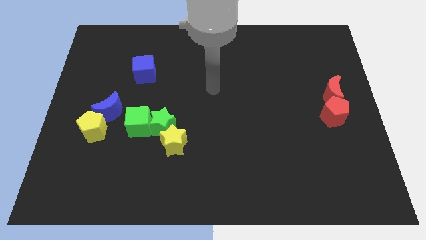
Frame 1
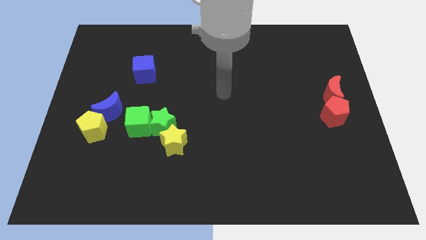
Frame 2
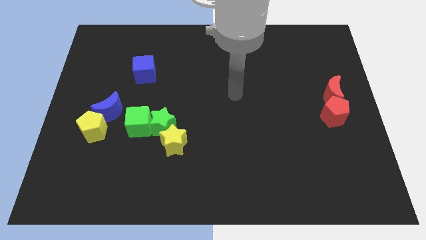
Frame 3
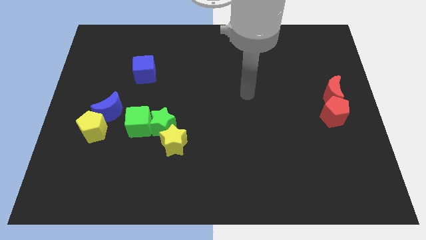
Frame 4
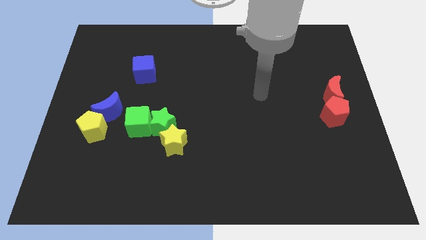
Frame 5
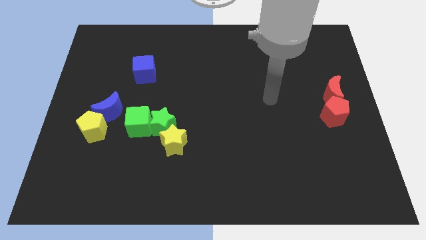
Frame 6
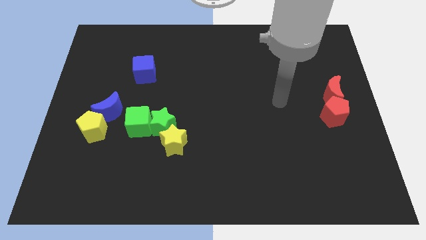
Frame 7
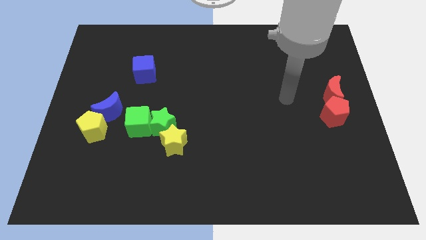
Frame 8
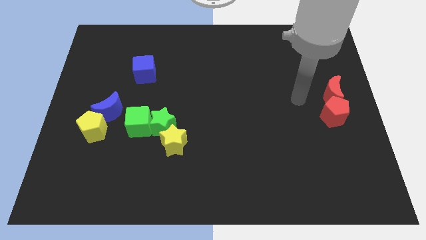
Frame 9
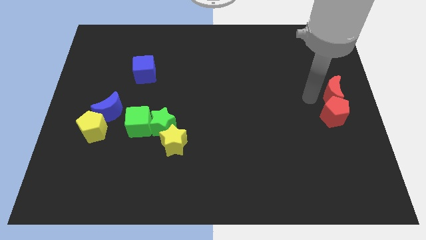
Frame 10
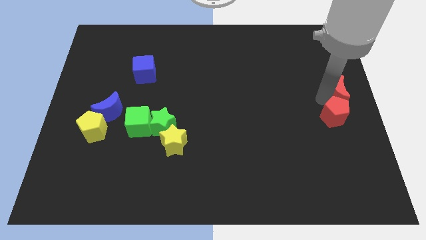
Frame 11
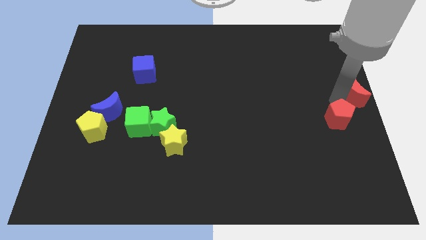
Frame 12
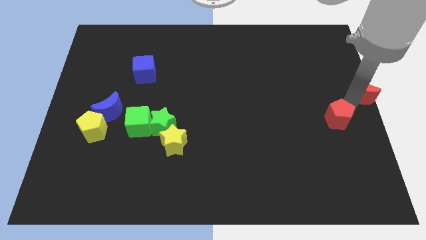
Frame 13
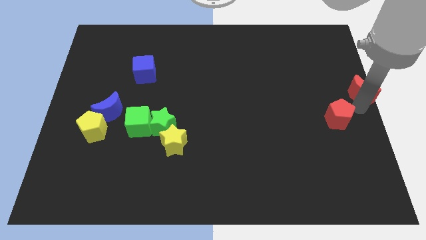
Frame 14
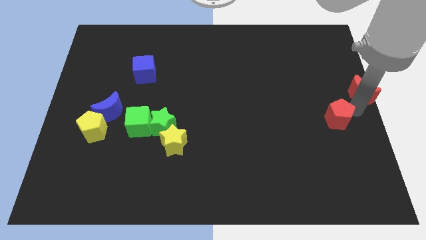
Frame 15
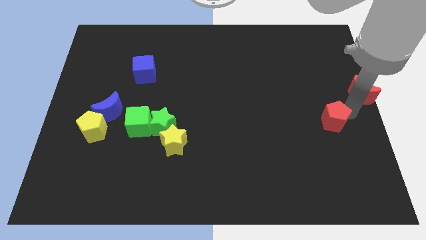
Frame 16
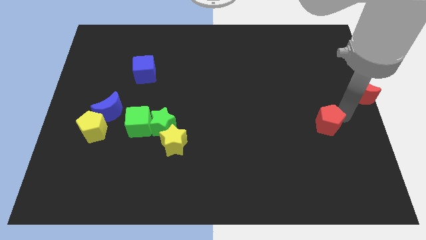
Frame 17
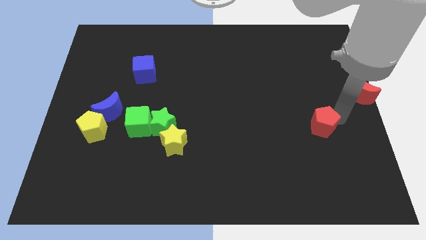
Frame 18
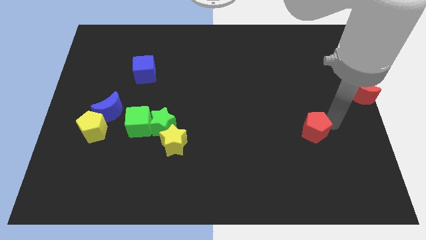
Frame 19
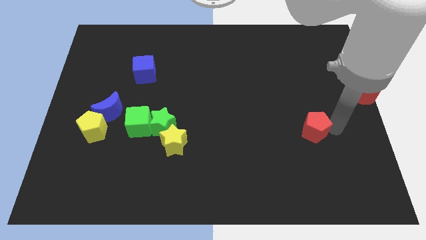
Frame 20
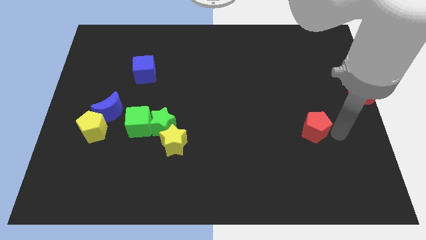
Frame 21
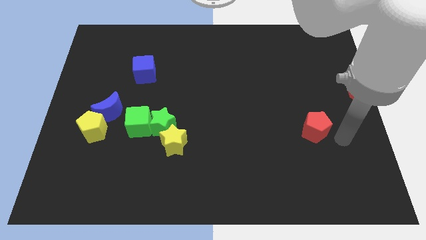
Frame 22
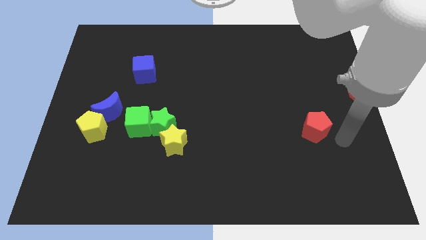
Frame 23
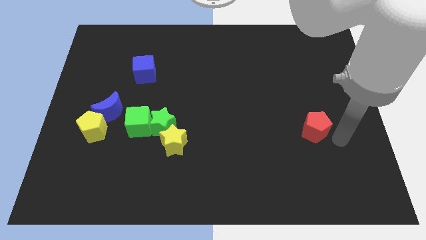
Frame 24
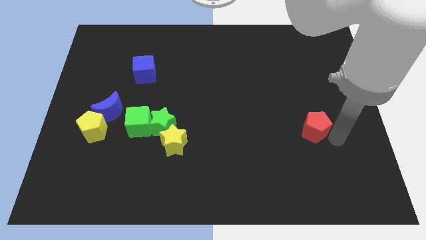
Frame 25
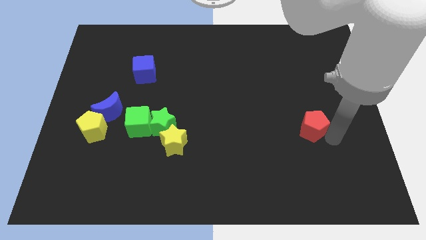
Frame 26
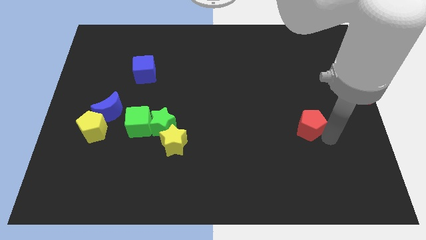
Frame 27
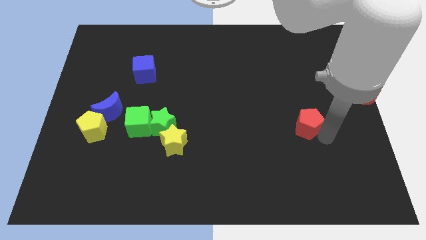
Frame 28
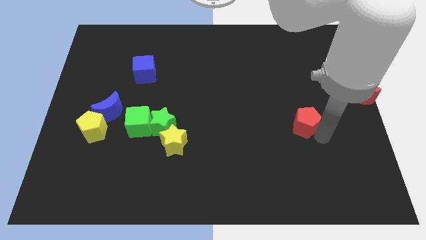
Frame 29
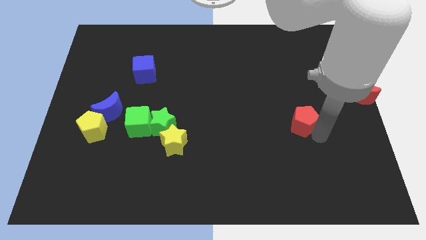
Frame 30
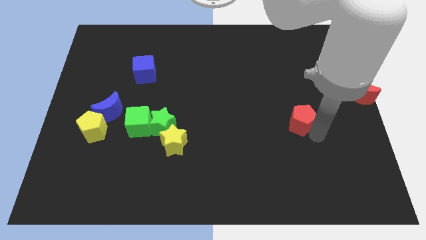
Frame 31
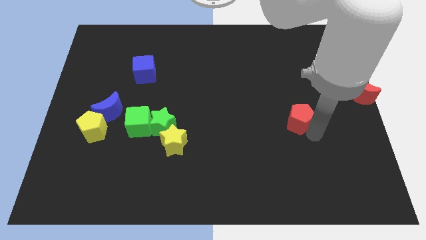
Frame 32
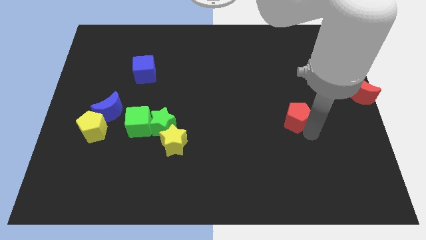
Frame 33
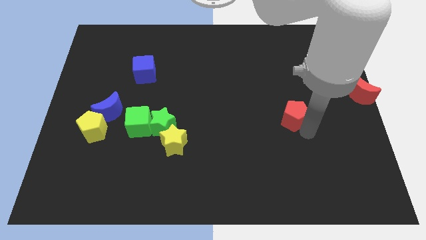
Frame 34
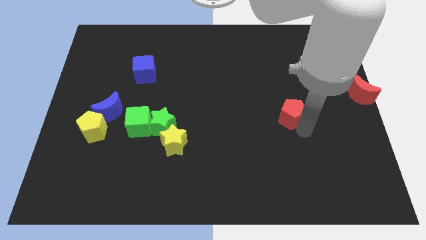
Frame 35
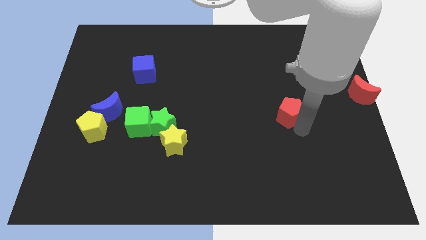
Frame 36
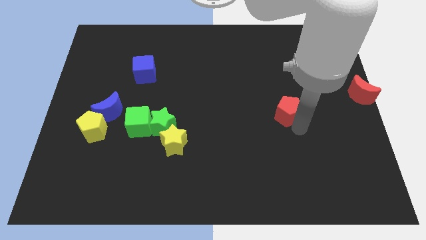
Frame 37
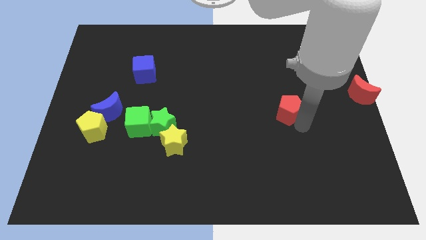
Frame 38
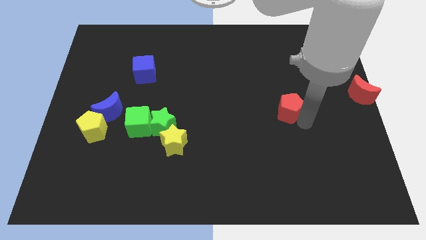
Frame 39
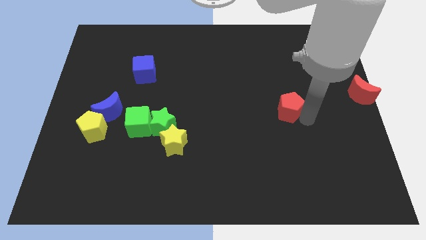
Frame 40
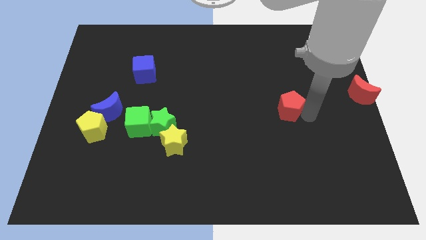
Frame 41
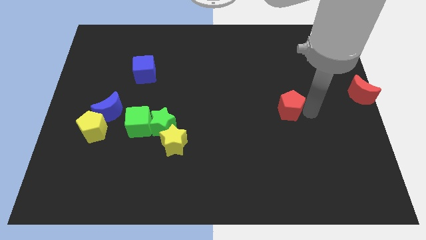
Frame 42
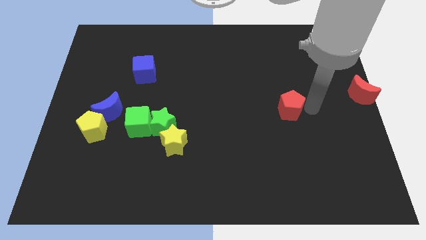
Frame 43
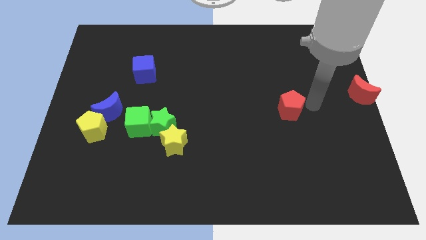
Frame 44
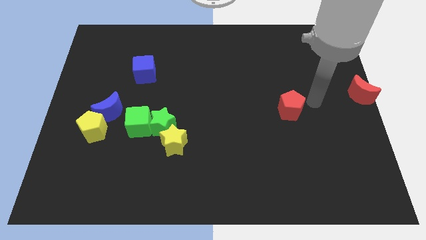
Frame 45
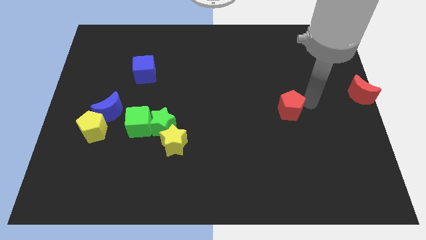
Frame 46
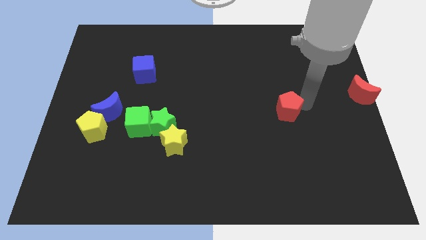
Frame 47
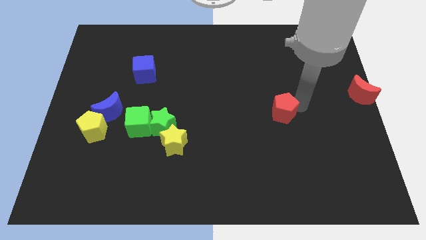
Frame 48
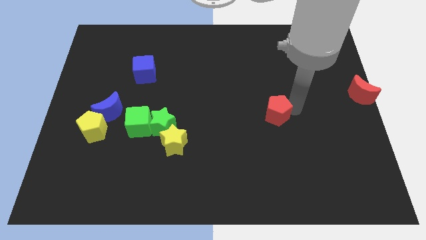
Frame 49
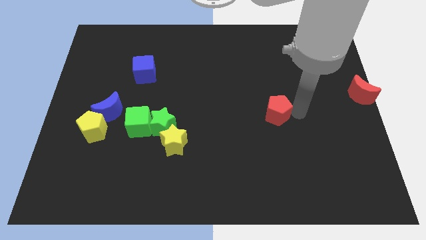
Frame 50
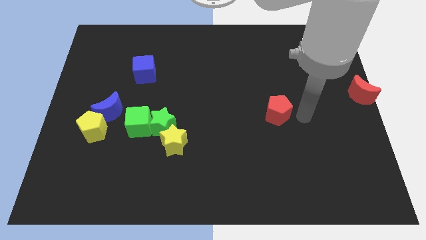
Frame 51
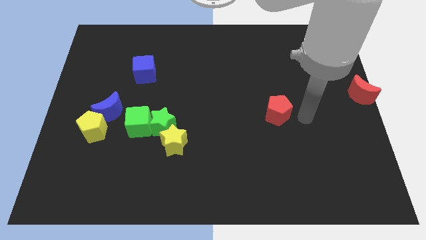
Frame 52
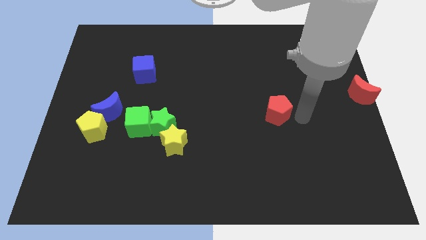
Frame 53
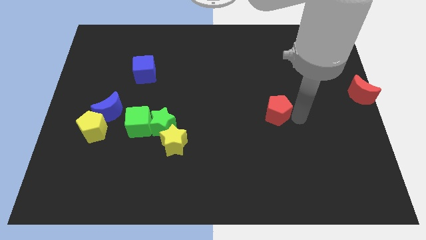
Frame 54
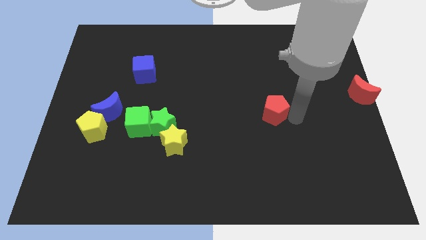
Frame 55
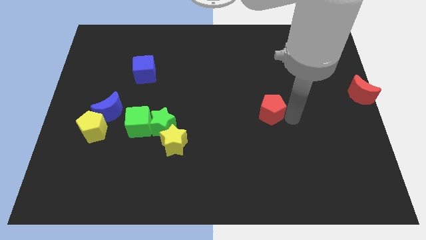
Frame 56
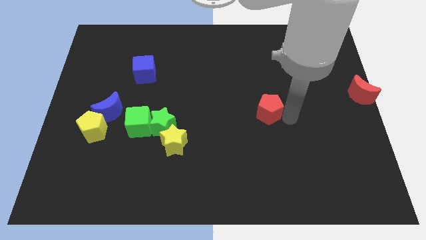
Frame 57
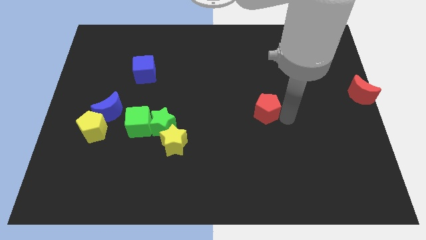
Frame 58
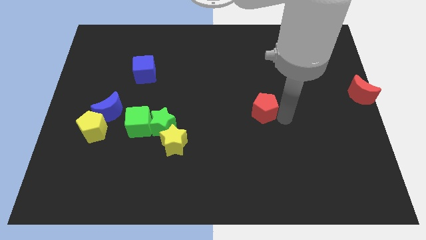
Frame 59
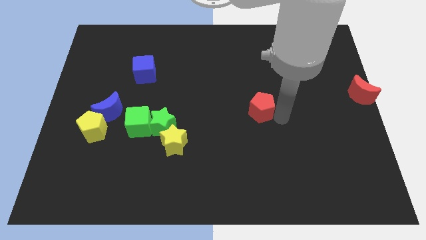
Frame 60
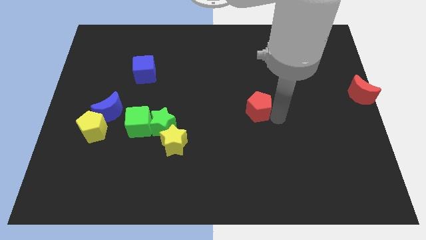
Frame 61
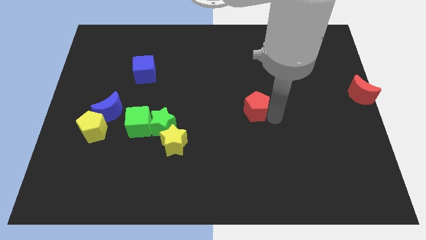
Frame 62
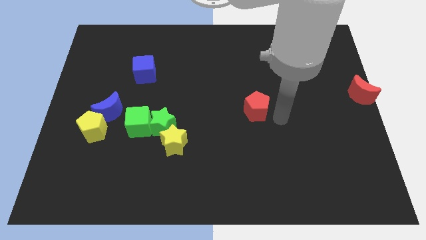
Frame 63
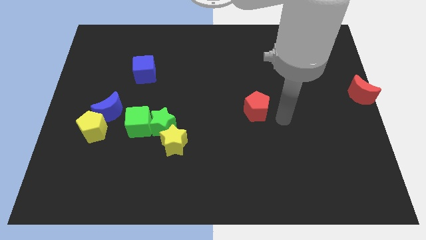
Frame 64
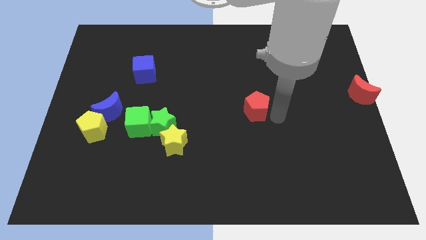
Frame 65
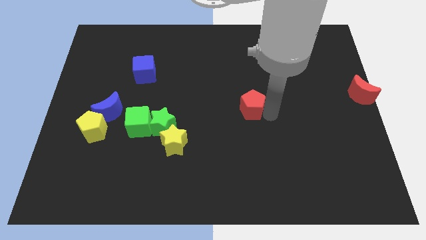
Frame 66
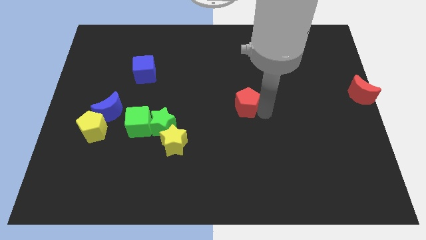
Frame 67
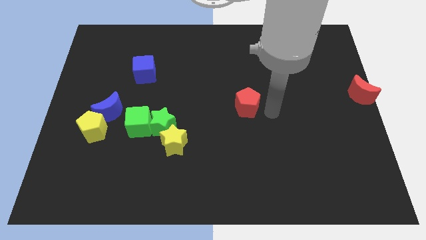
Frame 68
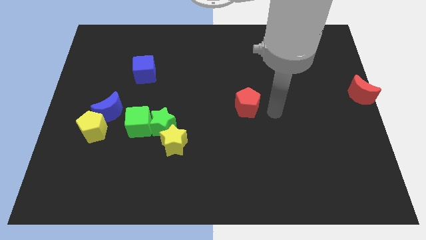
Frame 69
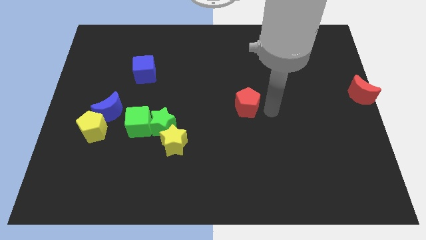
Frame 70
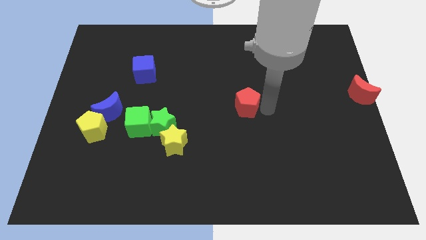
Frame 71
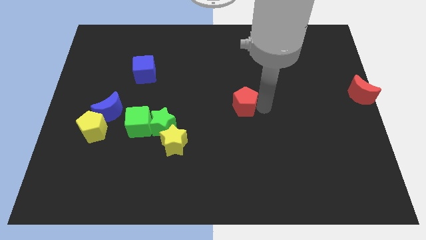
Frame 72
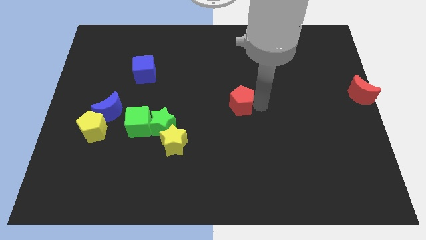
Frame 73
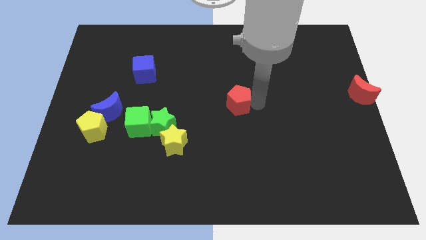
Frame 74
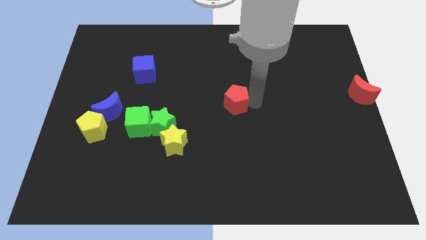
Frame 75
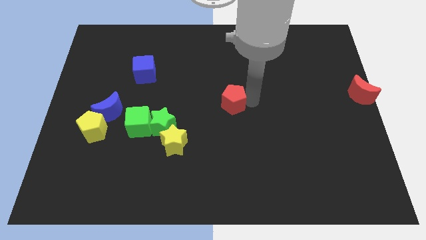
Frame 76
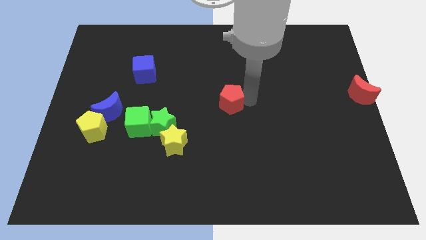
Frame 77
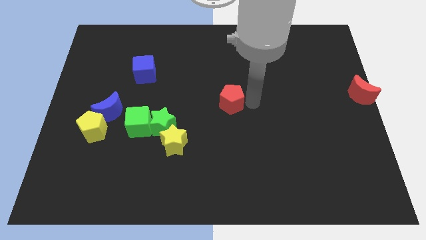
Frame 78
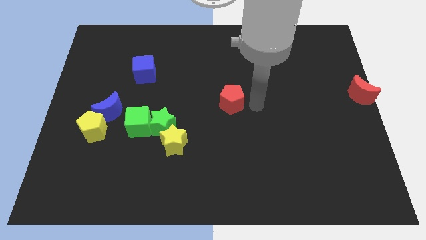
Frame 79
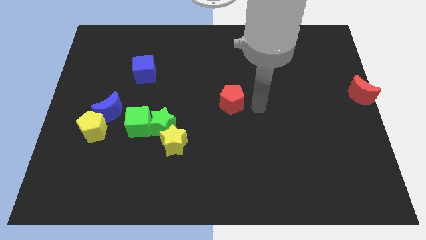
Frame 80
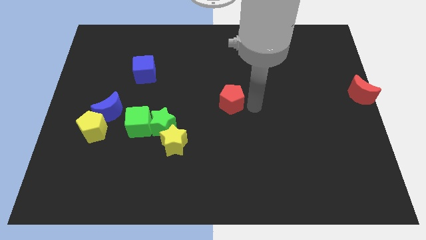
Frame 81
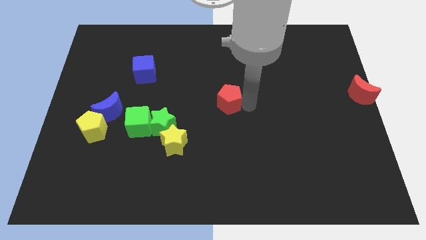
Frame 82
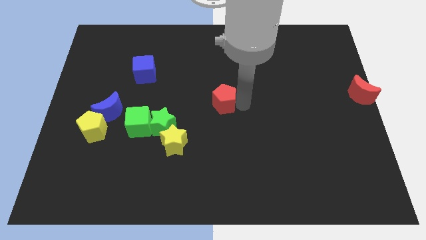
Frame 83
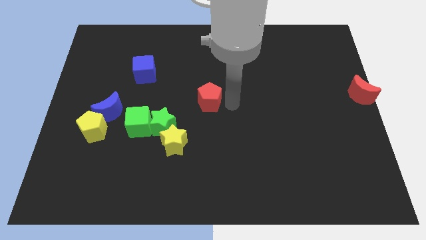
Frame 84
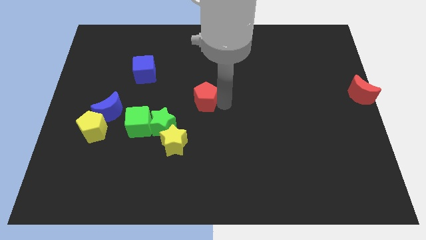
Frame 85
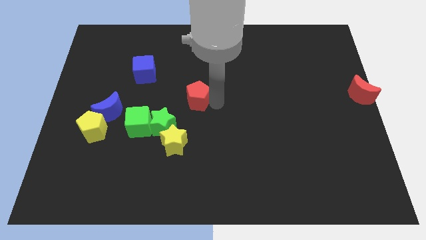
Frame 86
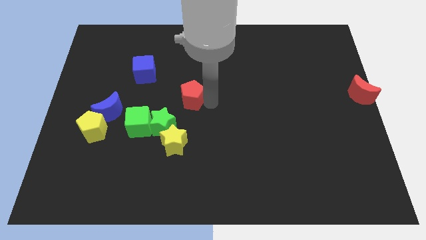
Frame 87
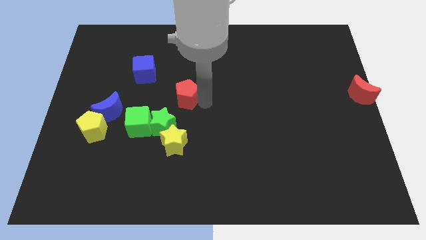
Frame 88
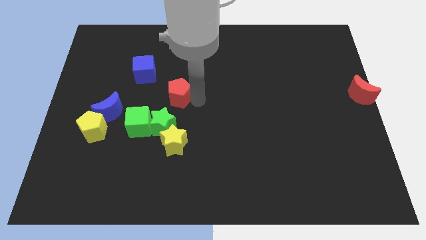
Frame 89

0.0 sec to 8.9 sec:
put the red pentagon diagonally down and to the right of the blue cube
